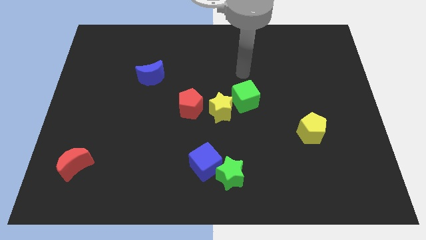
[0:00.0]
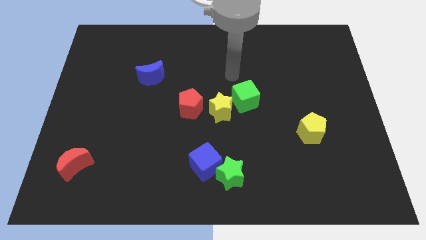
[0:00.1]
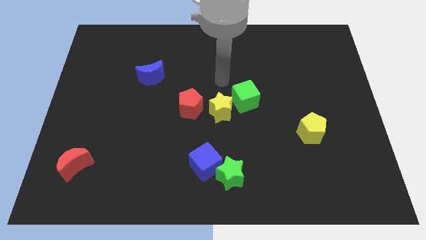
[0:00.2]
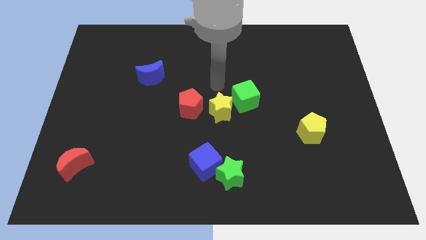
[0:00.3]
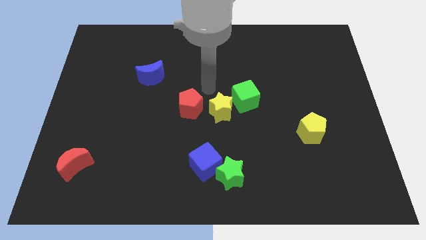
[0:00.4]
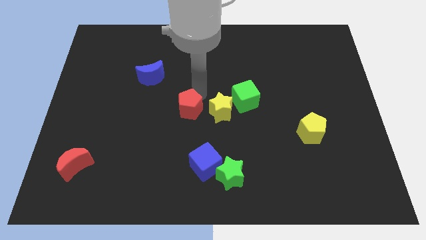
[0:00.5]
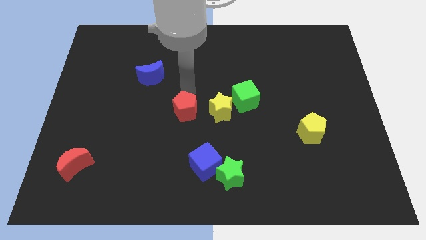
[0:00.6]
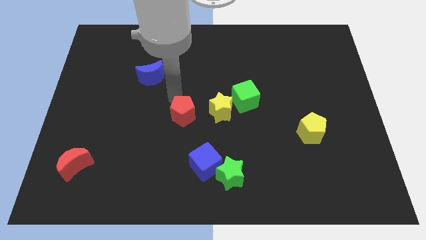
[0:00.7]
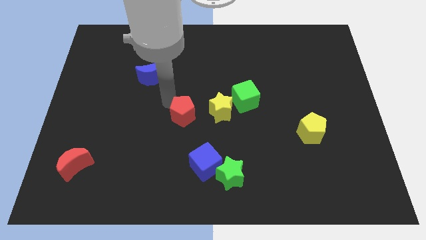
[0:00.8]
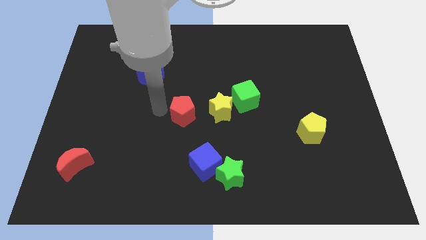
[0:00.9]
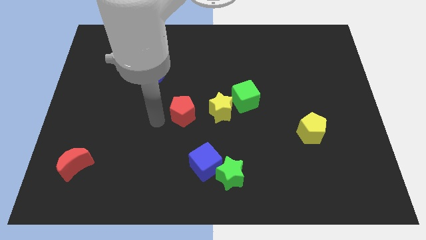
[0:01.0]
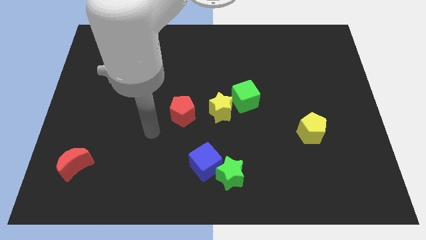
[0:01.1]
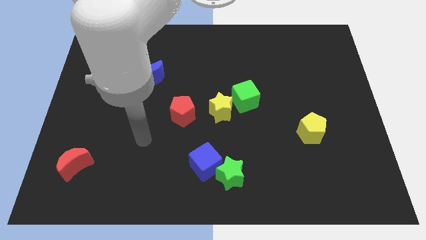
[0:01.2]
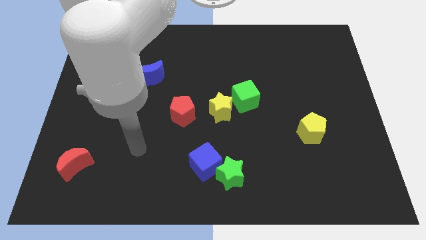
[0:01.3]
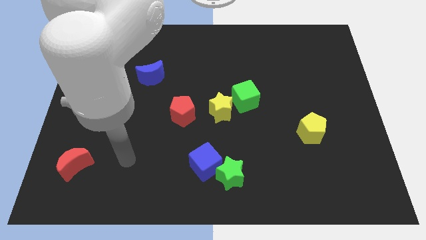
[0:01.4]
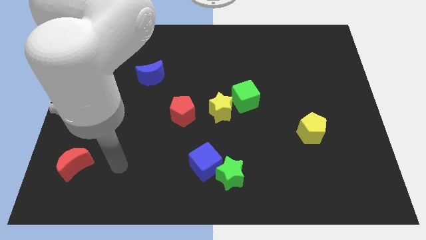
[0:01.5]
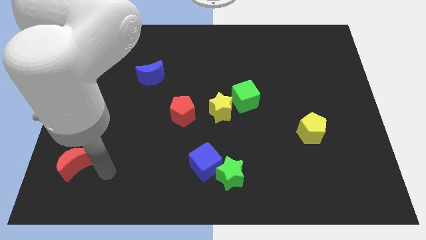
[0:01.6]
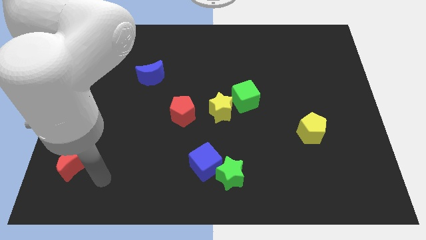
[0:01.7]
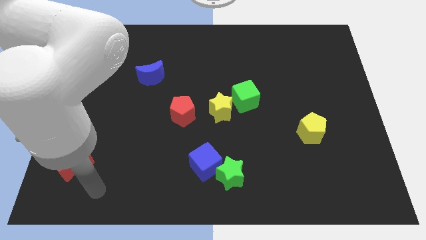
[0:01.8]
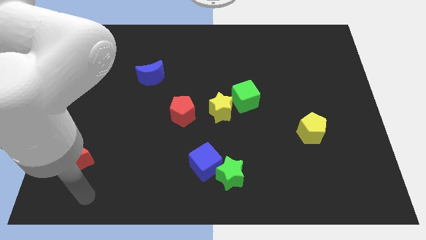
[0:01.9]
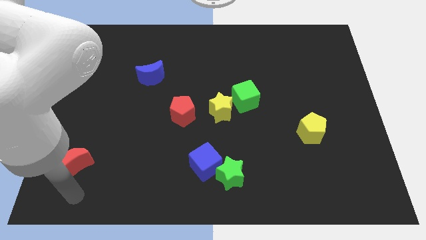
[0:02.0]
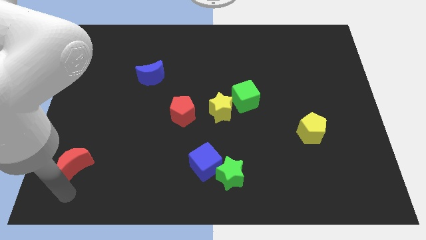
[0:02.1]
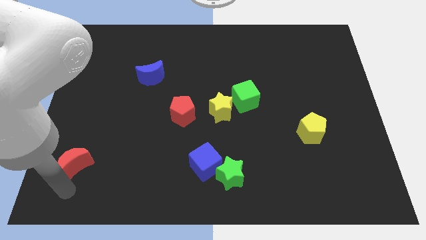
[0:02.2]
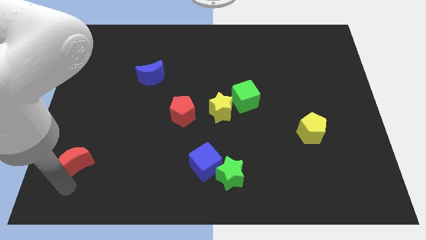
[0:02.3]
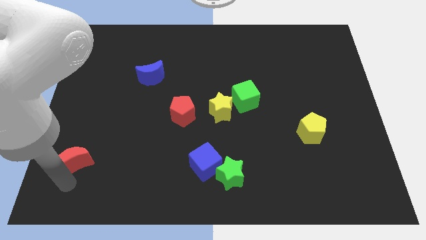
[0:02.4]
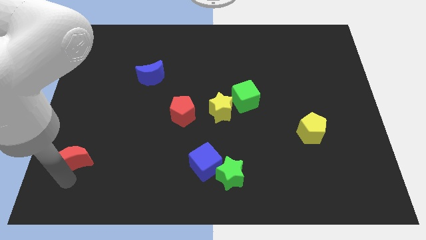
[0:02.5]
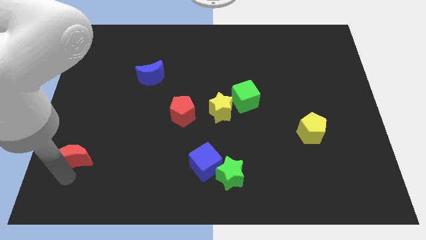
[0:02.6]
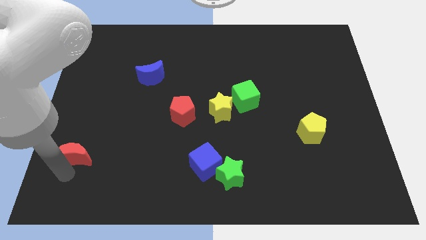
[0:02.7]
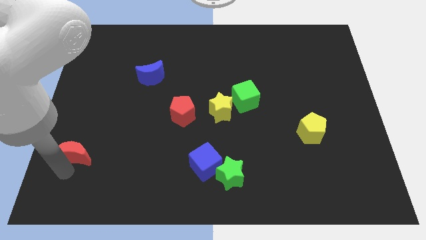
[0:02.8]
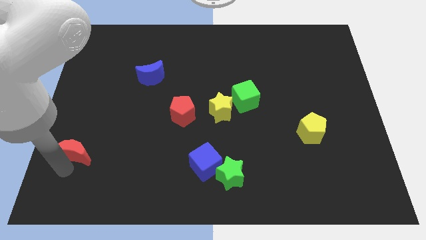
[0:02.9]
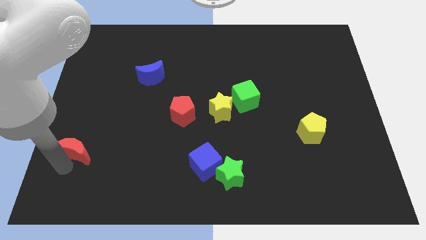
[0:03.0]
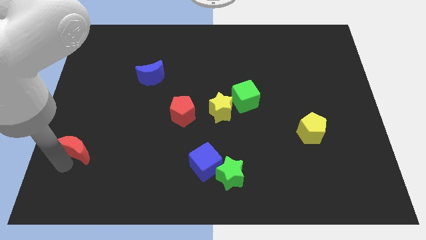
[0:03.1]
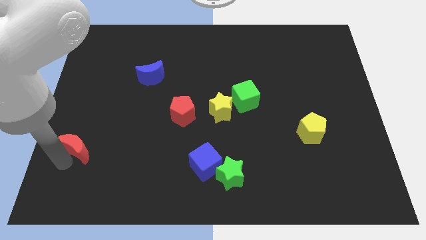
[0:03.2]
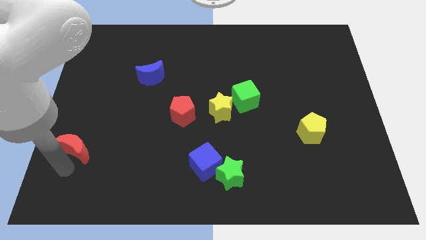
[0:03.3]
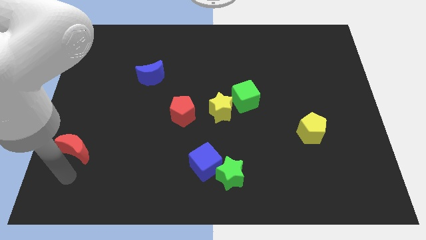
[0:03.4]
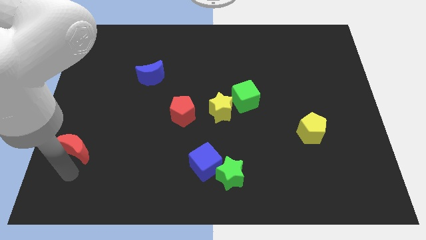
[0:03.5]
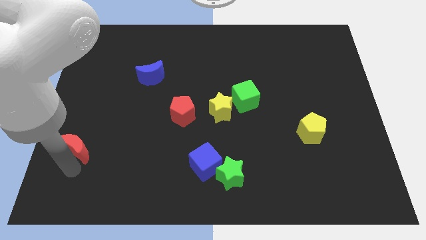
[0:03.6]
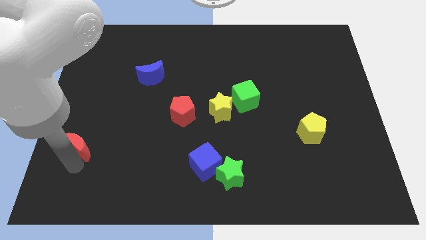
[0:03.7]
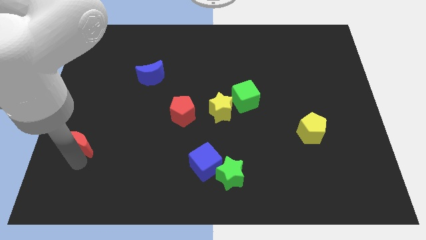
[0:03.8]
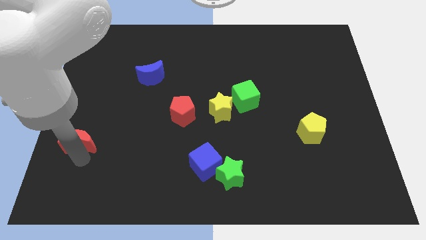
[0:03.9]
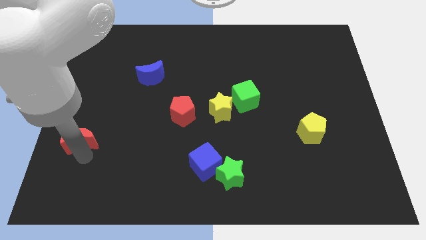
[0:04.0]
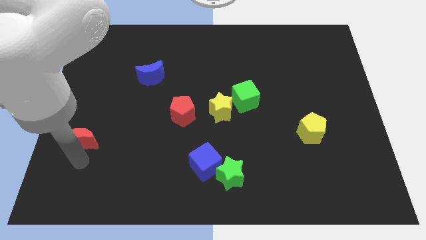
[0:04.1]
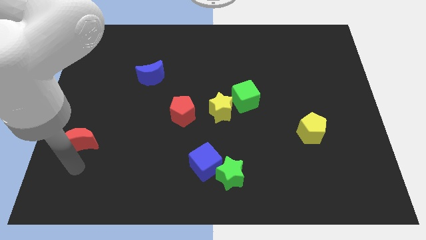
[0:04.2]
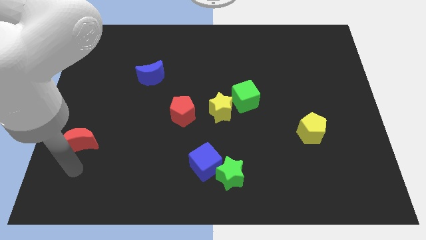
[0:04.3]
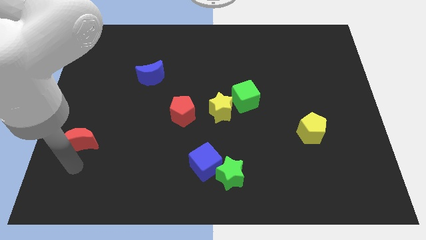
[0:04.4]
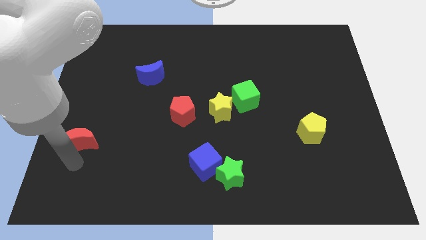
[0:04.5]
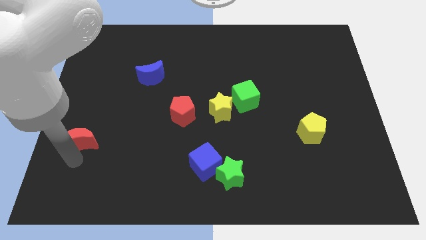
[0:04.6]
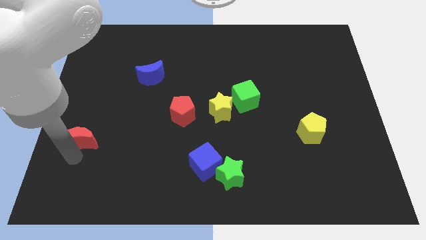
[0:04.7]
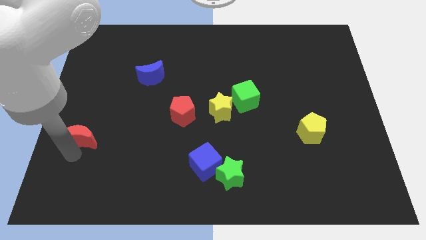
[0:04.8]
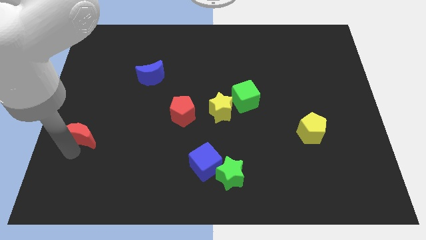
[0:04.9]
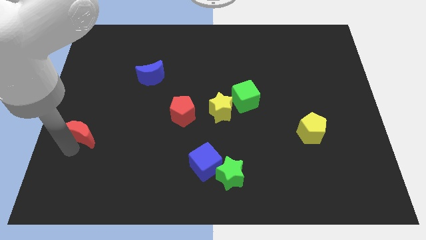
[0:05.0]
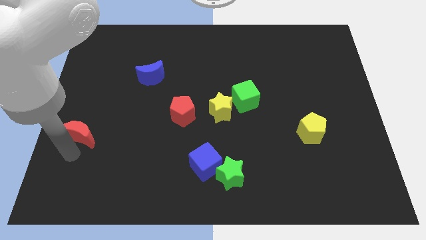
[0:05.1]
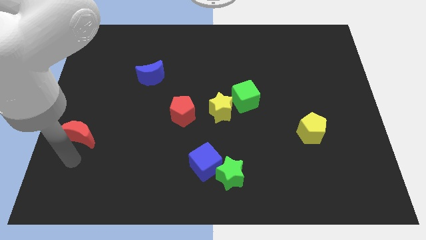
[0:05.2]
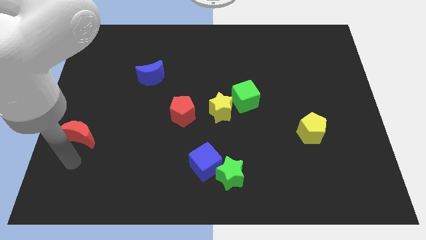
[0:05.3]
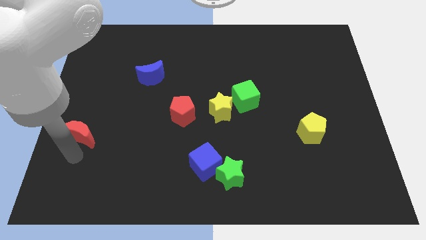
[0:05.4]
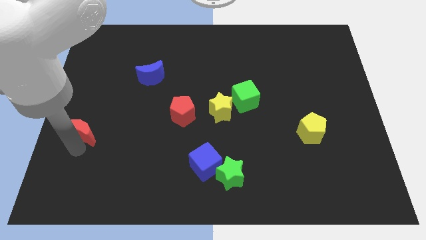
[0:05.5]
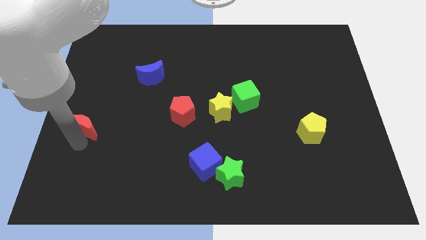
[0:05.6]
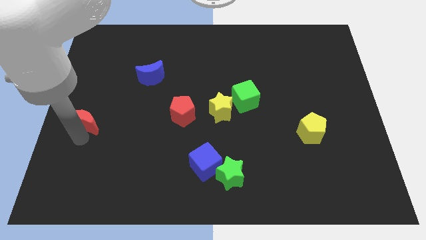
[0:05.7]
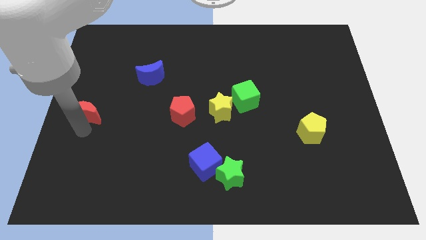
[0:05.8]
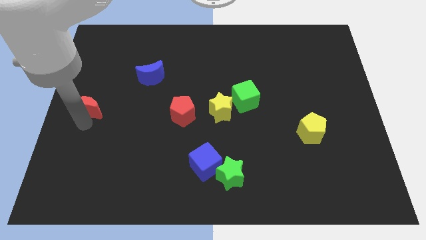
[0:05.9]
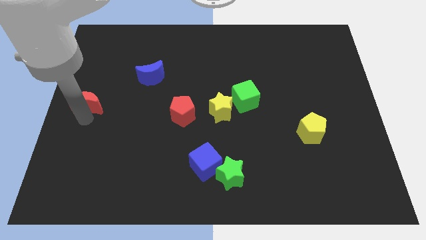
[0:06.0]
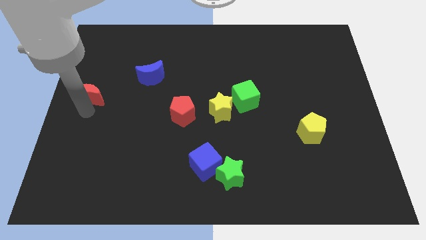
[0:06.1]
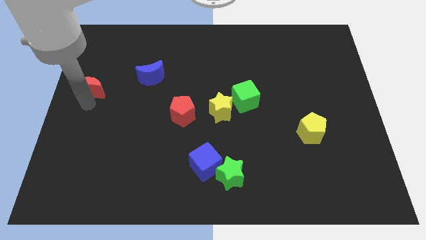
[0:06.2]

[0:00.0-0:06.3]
slide the red moon upwards

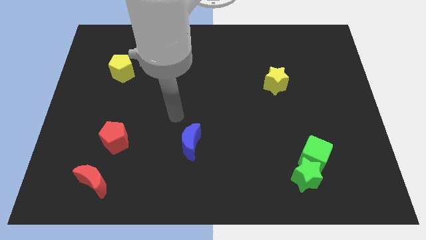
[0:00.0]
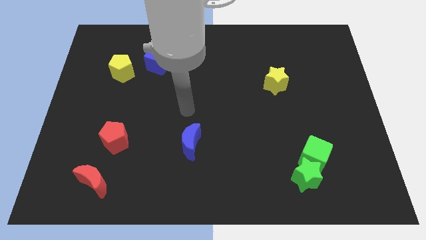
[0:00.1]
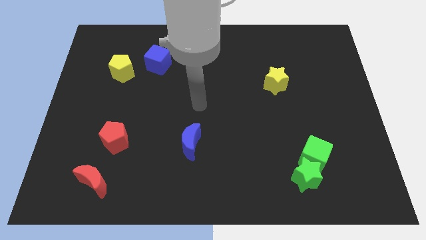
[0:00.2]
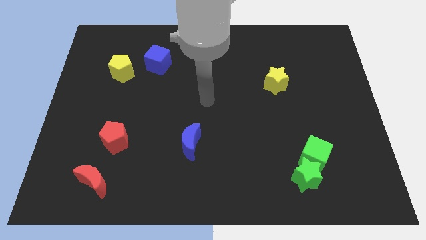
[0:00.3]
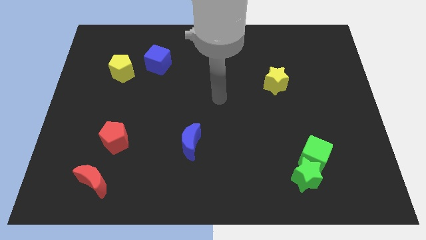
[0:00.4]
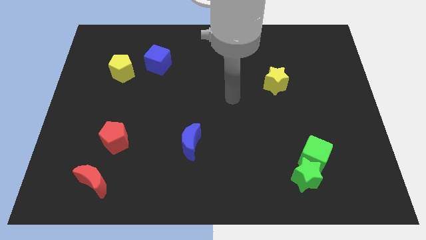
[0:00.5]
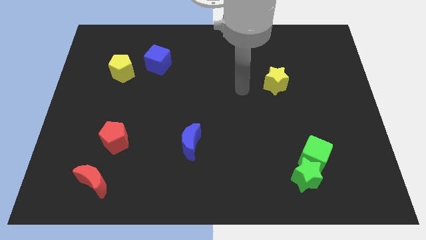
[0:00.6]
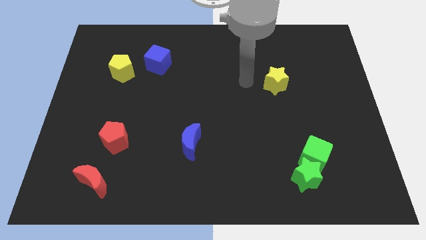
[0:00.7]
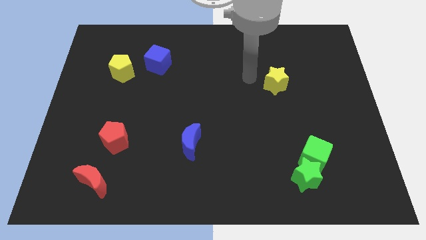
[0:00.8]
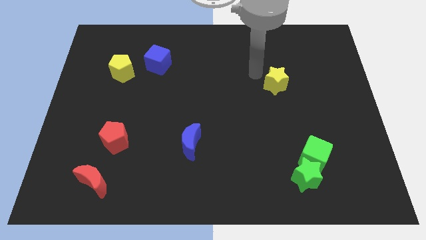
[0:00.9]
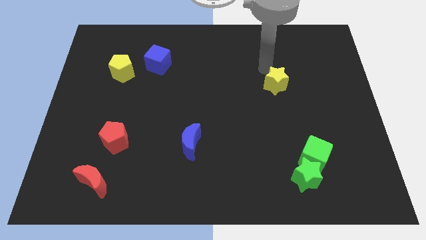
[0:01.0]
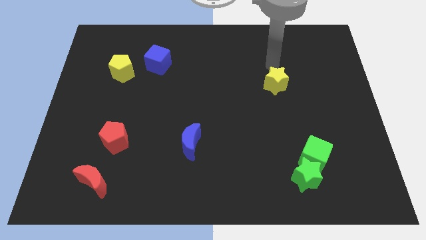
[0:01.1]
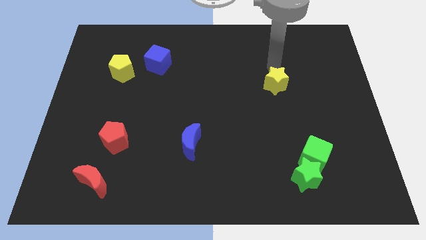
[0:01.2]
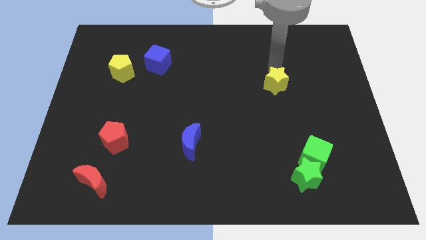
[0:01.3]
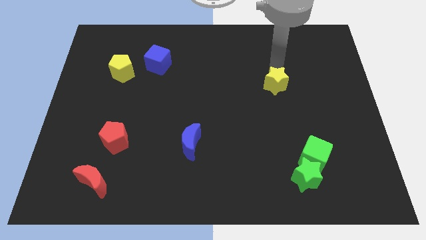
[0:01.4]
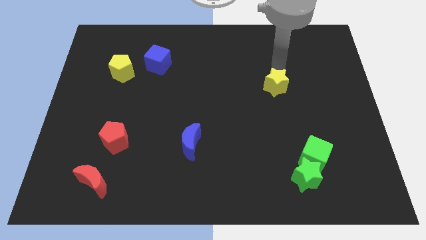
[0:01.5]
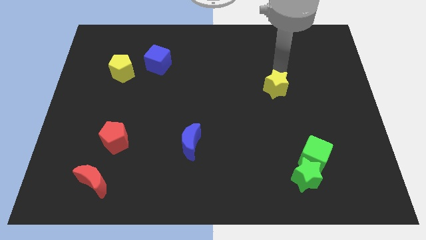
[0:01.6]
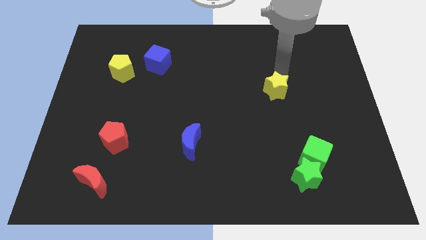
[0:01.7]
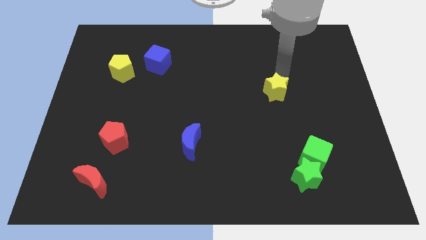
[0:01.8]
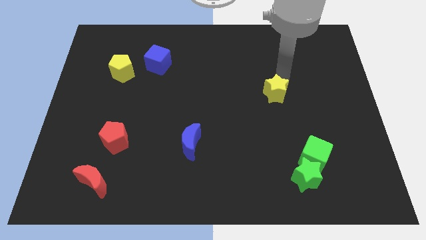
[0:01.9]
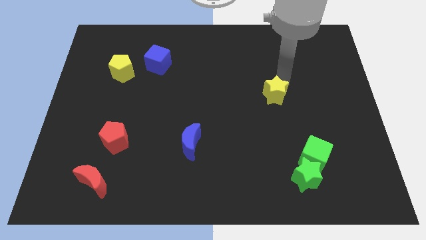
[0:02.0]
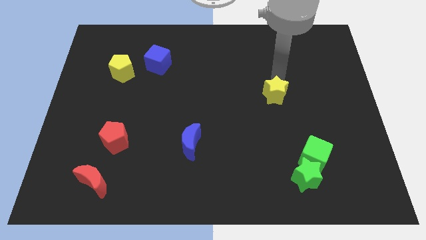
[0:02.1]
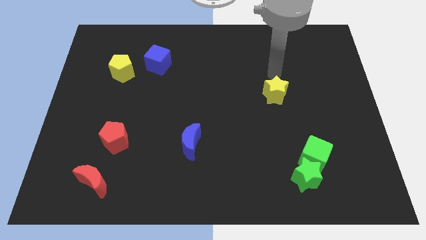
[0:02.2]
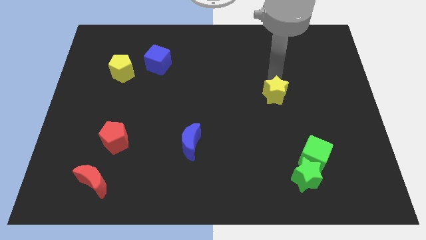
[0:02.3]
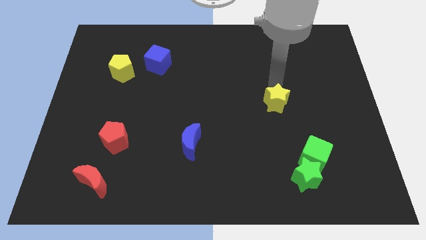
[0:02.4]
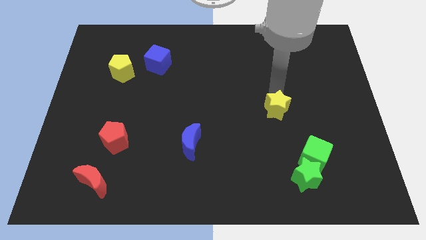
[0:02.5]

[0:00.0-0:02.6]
slightly push the yellow star downwards
